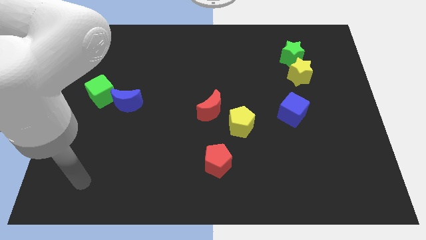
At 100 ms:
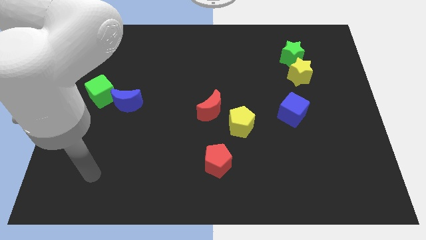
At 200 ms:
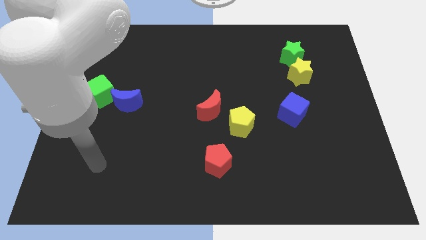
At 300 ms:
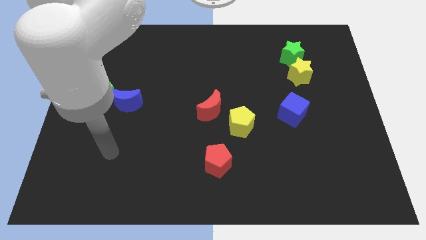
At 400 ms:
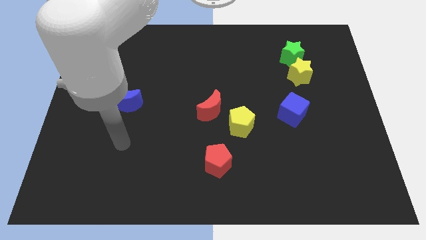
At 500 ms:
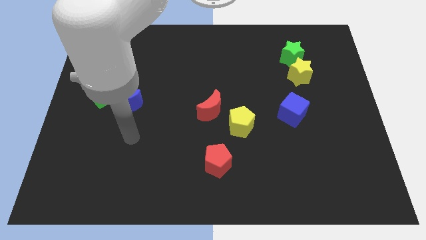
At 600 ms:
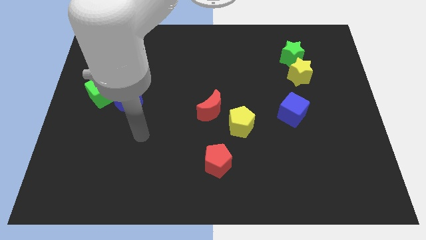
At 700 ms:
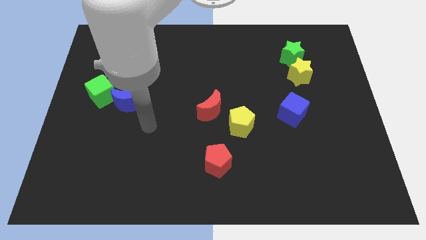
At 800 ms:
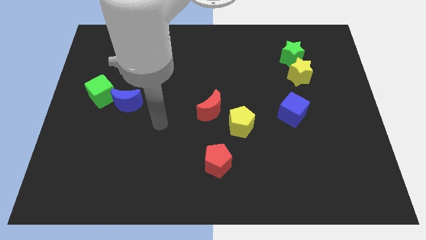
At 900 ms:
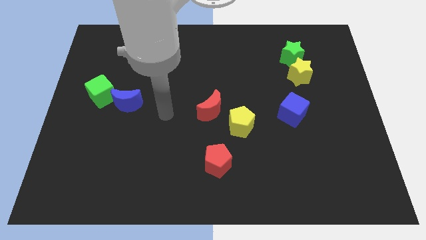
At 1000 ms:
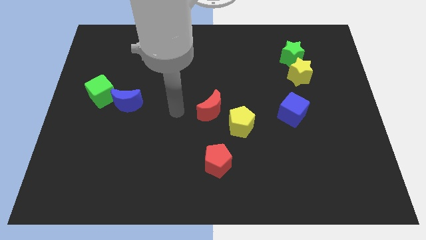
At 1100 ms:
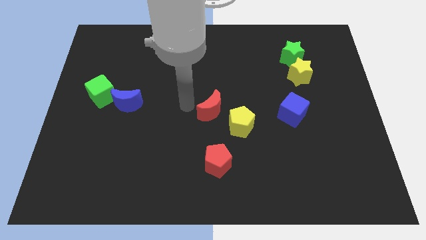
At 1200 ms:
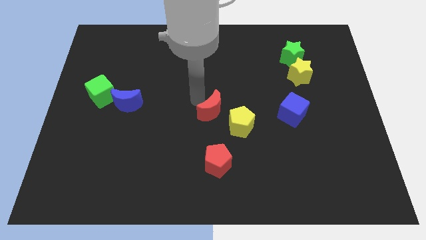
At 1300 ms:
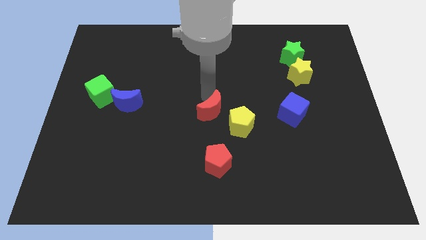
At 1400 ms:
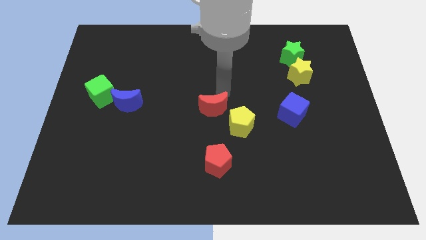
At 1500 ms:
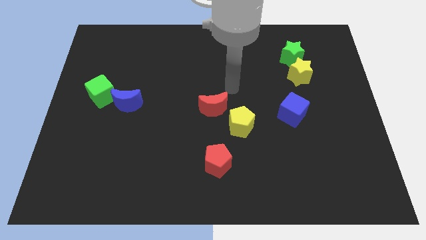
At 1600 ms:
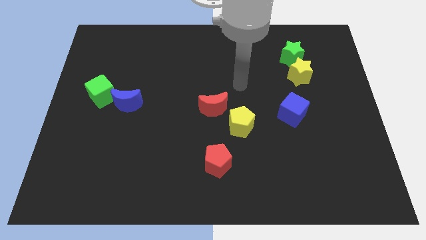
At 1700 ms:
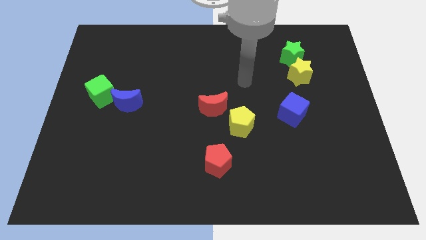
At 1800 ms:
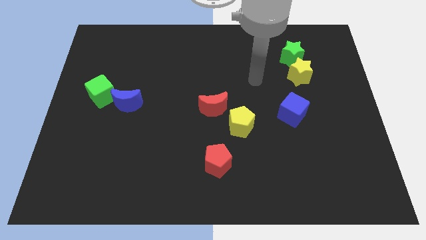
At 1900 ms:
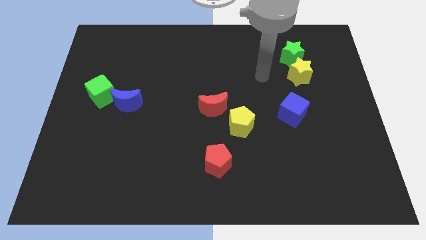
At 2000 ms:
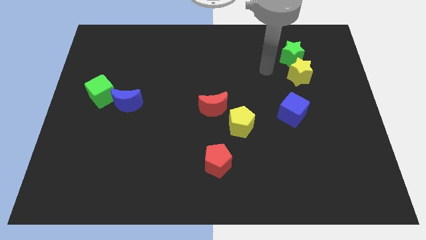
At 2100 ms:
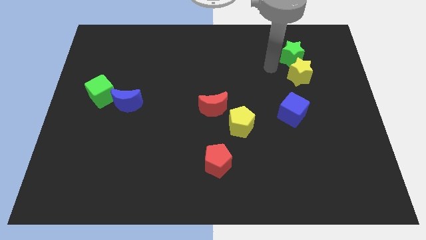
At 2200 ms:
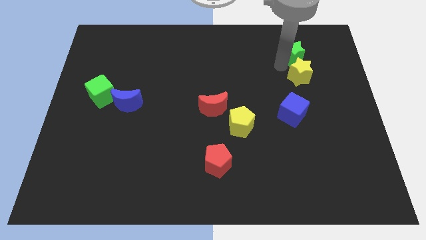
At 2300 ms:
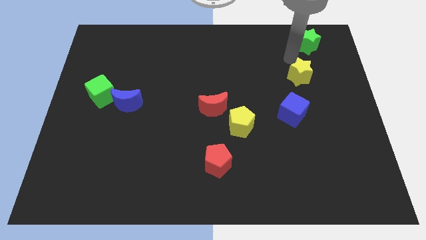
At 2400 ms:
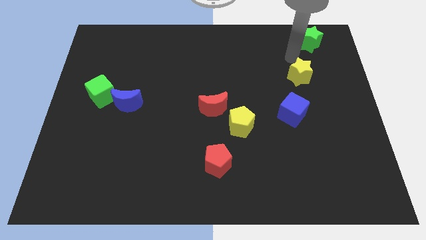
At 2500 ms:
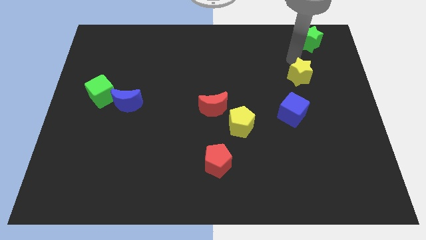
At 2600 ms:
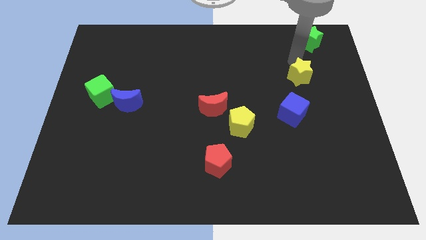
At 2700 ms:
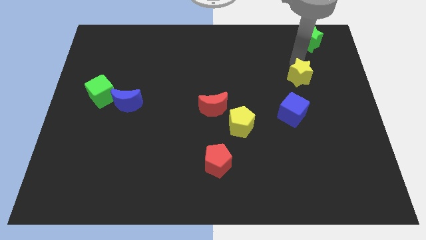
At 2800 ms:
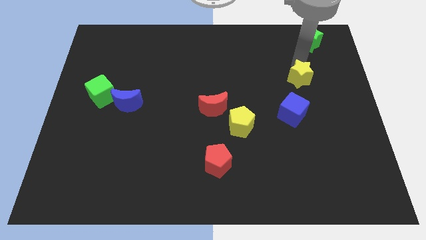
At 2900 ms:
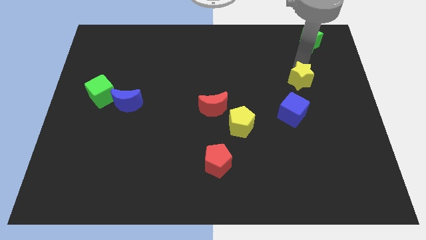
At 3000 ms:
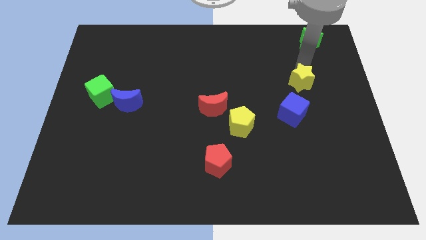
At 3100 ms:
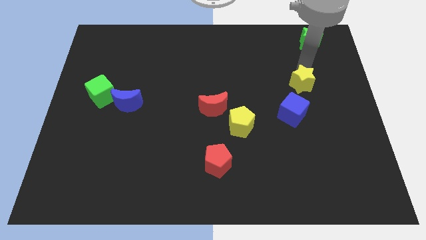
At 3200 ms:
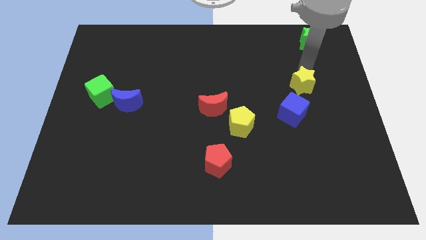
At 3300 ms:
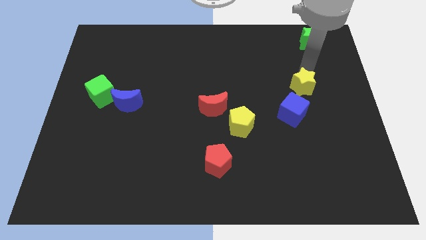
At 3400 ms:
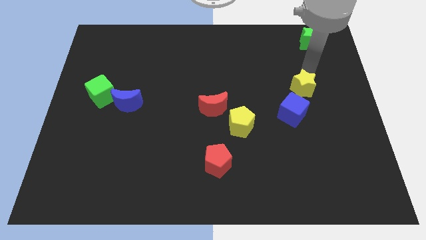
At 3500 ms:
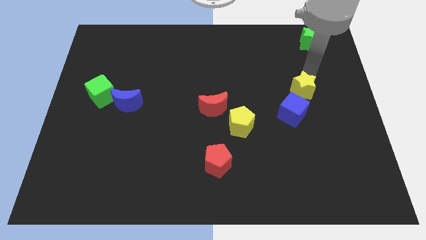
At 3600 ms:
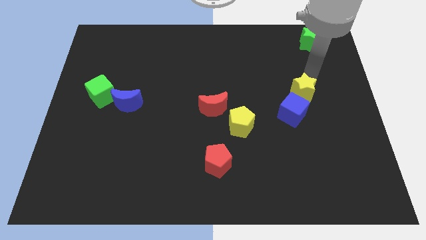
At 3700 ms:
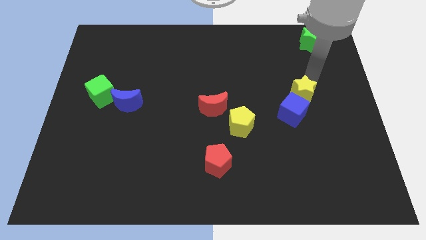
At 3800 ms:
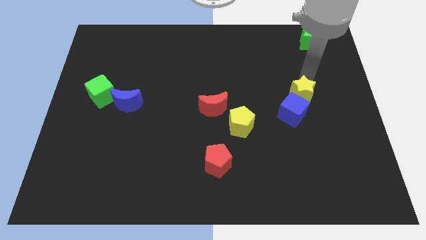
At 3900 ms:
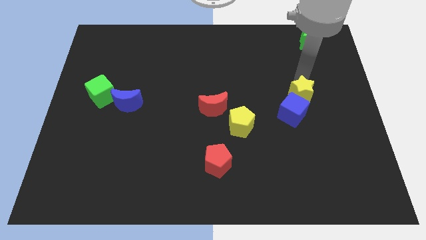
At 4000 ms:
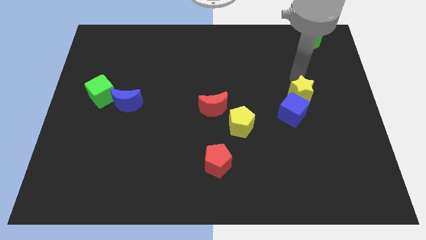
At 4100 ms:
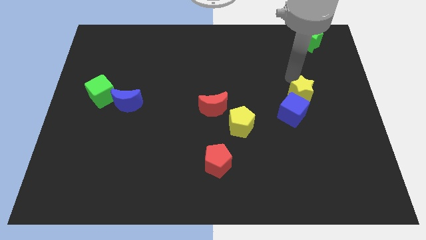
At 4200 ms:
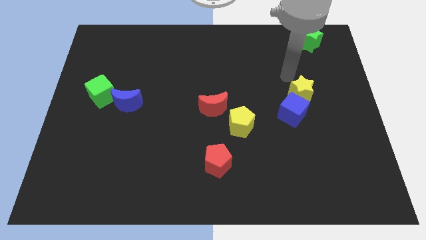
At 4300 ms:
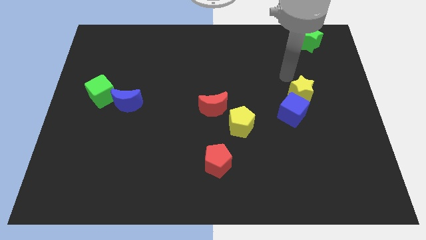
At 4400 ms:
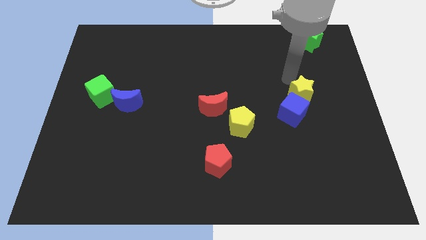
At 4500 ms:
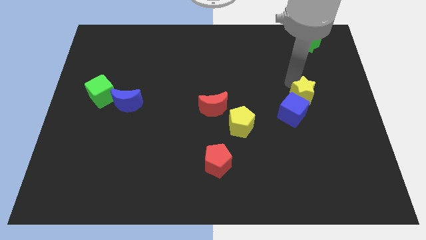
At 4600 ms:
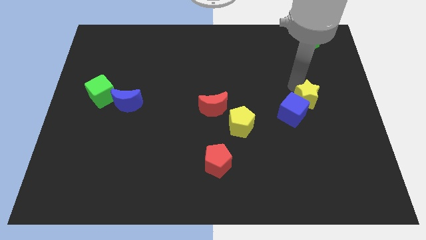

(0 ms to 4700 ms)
slightly move the yellow star downwards

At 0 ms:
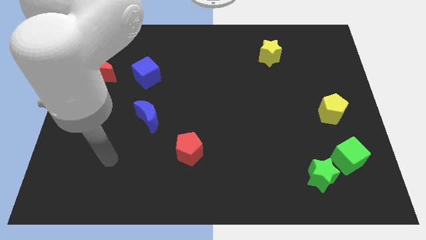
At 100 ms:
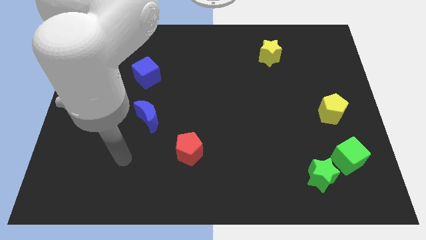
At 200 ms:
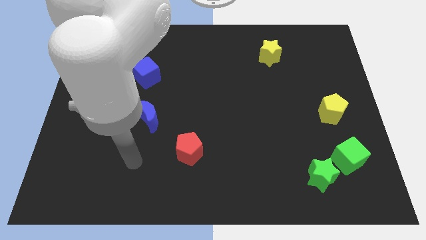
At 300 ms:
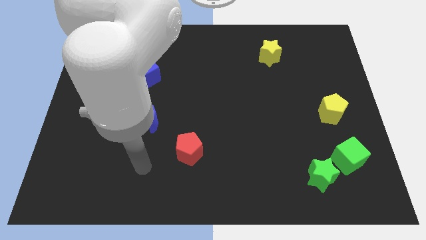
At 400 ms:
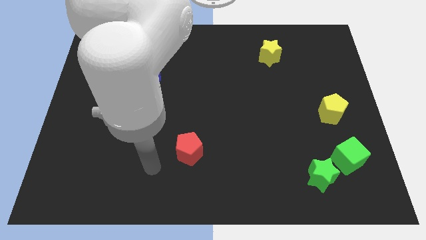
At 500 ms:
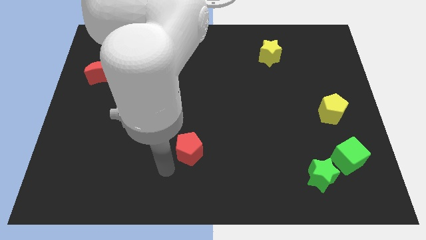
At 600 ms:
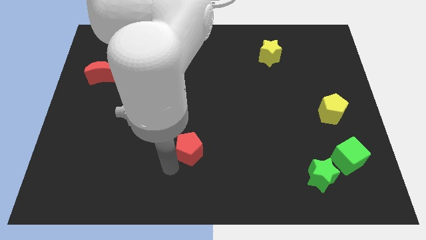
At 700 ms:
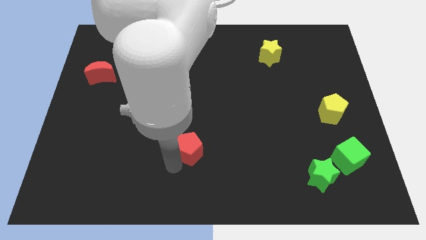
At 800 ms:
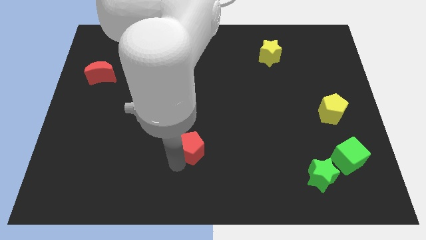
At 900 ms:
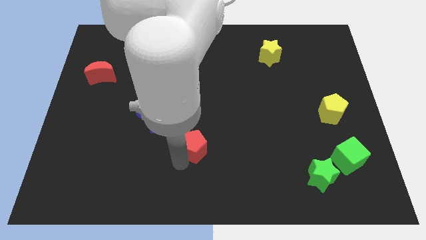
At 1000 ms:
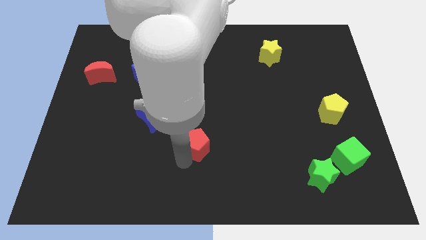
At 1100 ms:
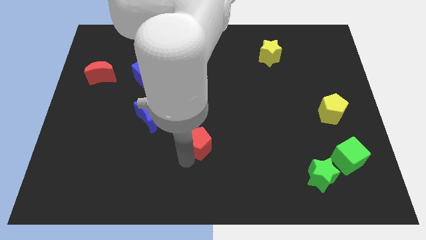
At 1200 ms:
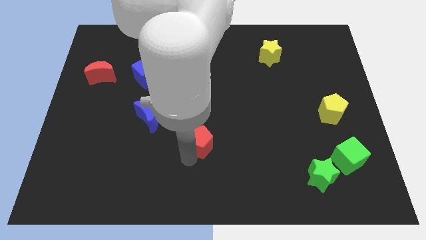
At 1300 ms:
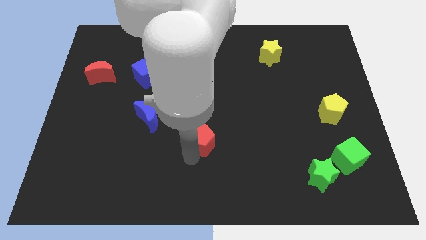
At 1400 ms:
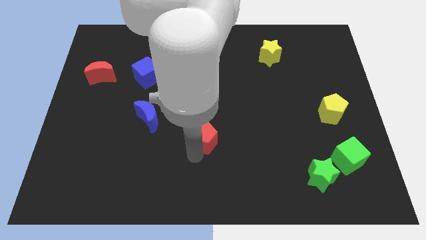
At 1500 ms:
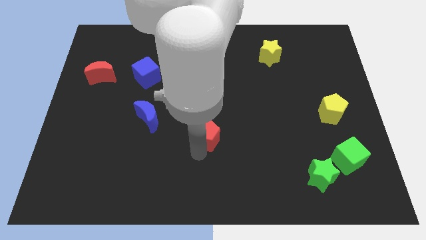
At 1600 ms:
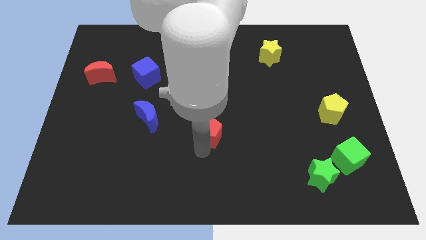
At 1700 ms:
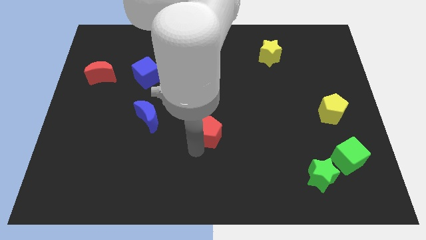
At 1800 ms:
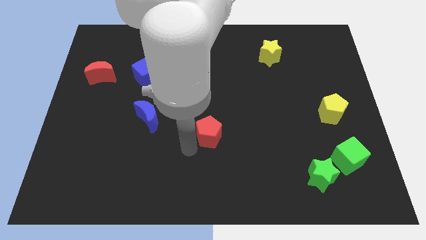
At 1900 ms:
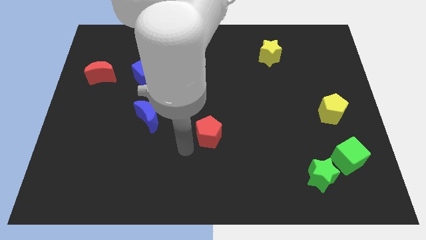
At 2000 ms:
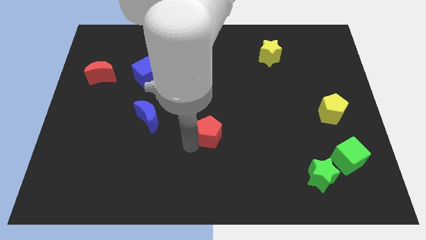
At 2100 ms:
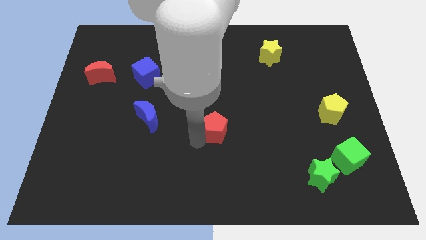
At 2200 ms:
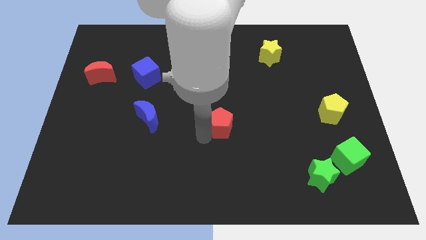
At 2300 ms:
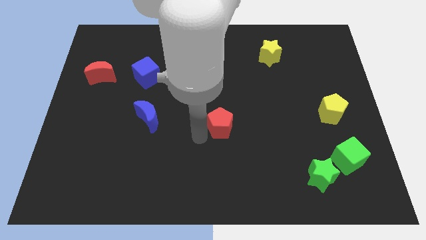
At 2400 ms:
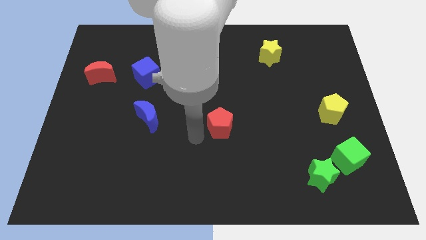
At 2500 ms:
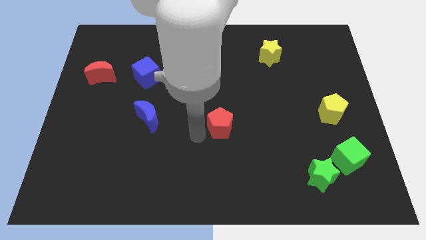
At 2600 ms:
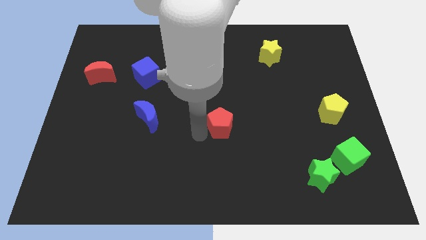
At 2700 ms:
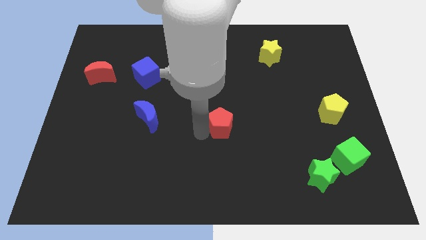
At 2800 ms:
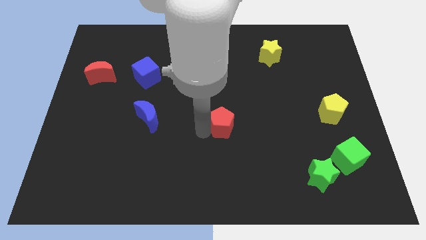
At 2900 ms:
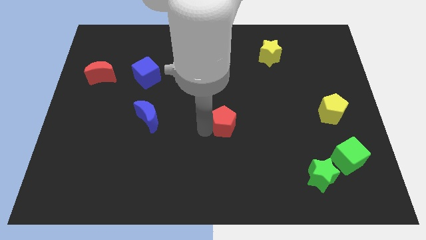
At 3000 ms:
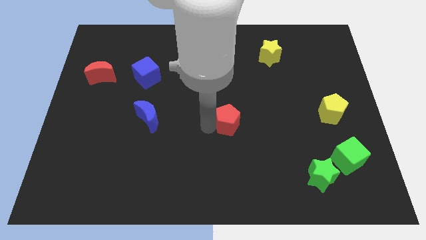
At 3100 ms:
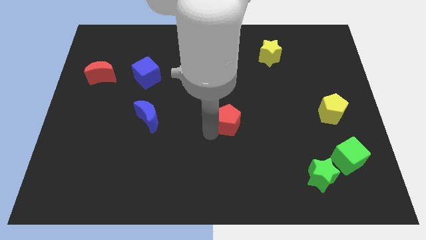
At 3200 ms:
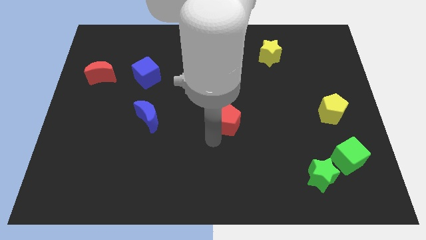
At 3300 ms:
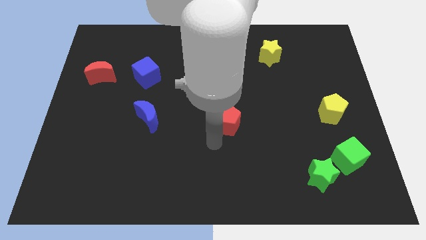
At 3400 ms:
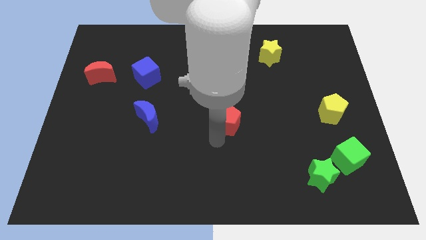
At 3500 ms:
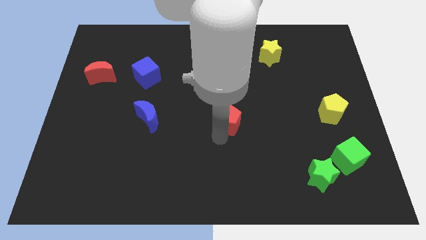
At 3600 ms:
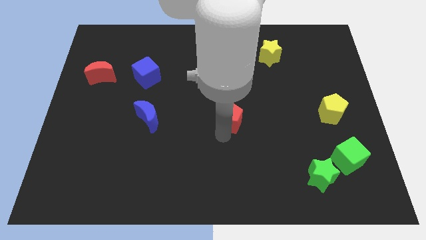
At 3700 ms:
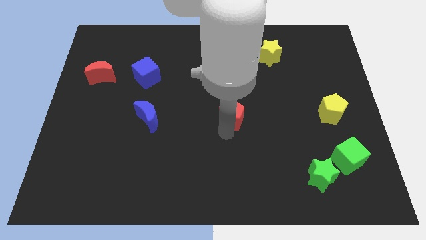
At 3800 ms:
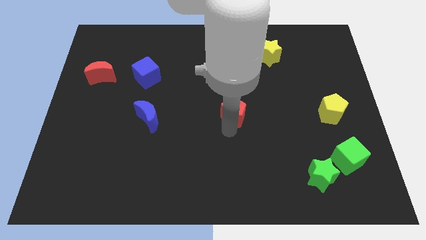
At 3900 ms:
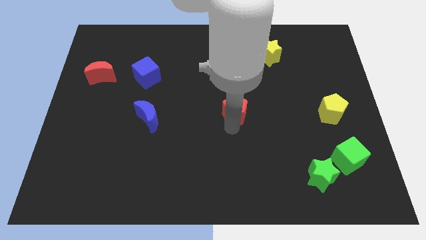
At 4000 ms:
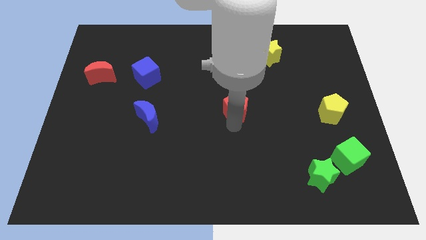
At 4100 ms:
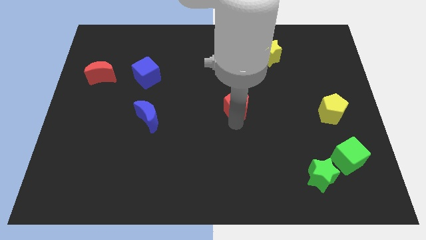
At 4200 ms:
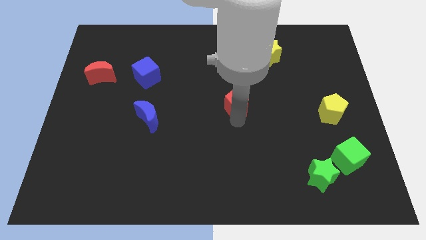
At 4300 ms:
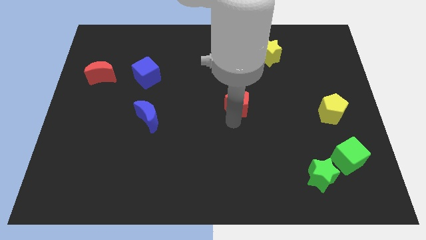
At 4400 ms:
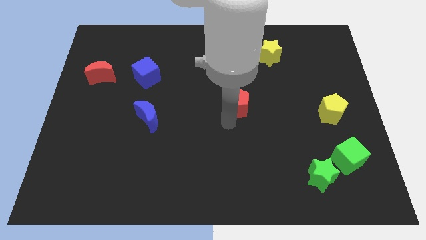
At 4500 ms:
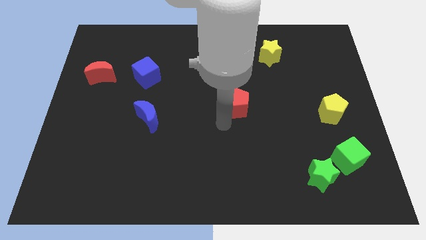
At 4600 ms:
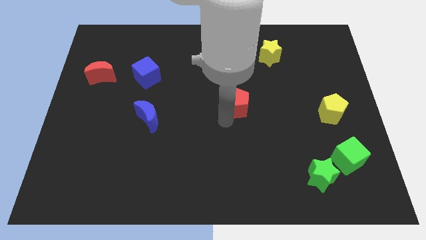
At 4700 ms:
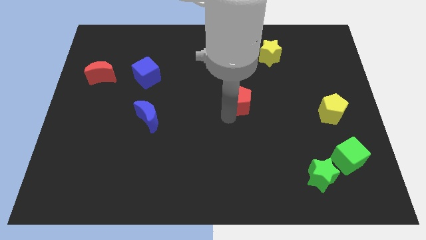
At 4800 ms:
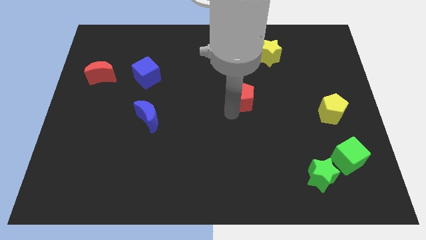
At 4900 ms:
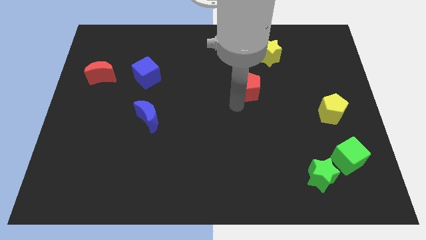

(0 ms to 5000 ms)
move the red pentagon up and right
